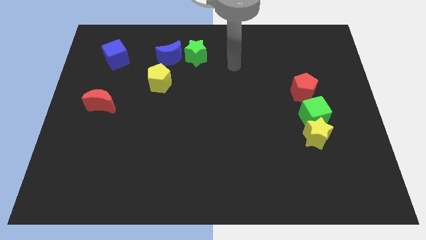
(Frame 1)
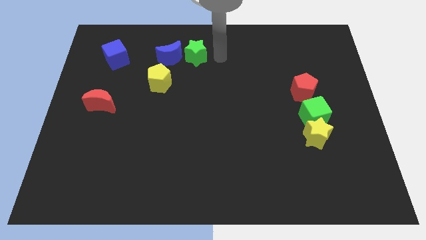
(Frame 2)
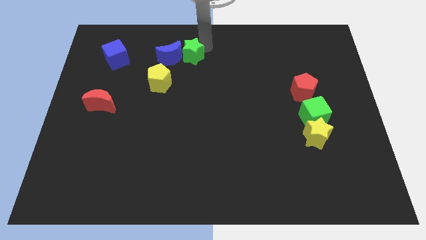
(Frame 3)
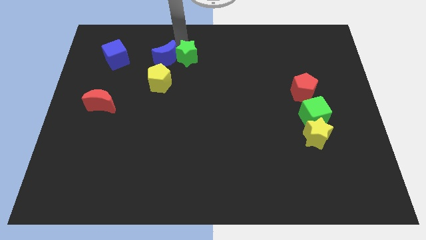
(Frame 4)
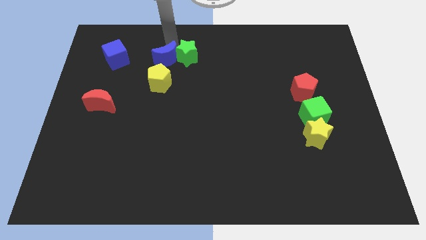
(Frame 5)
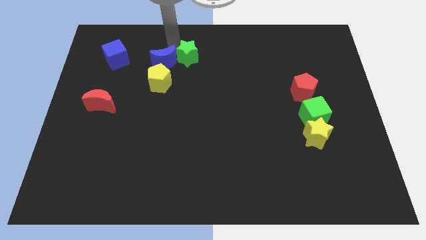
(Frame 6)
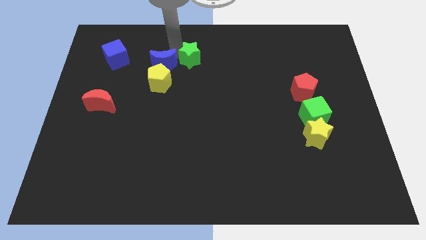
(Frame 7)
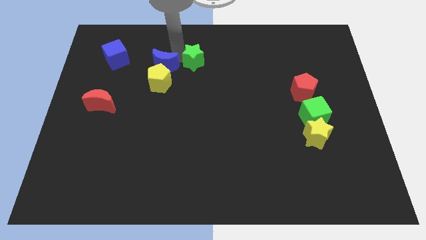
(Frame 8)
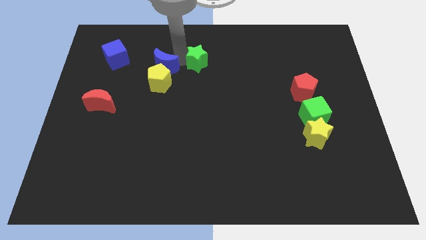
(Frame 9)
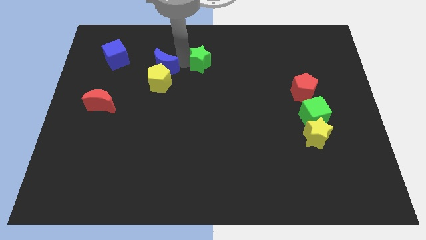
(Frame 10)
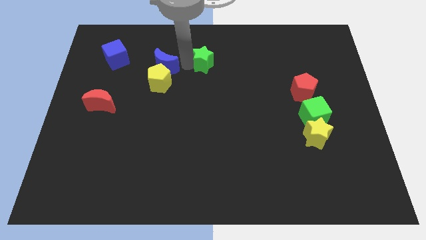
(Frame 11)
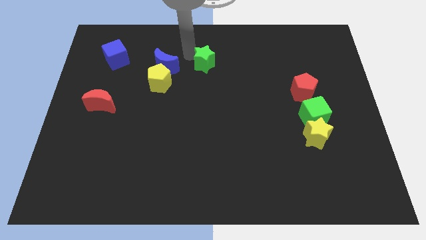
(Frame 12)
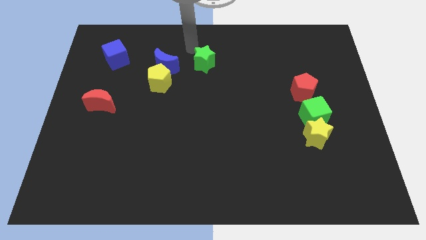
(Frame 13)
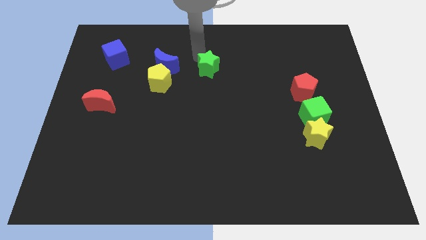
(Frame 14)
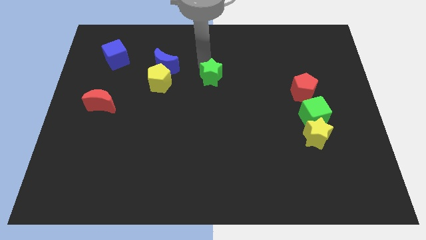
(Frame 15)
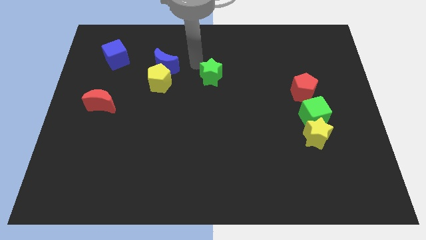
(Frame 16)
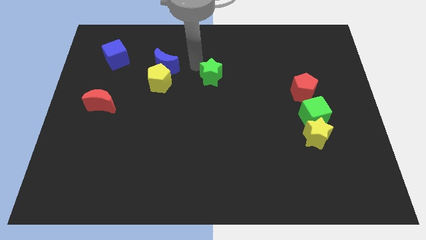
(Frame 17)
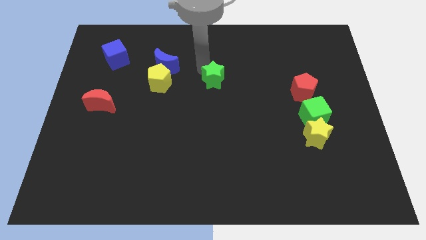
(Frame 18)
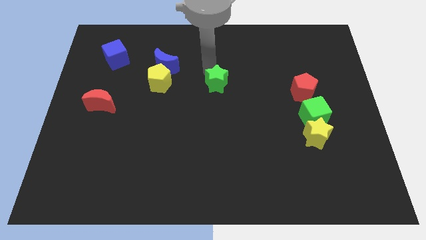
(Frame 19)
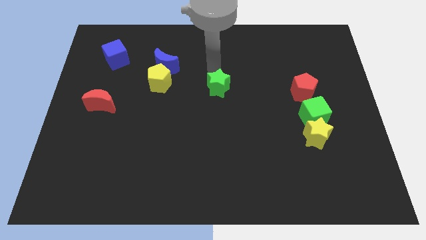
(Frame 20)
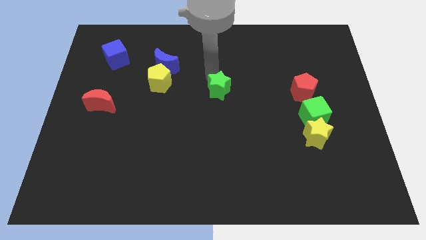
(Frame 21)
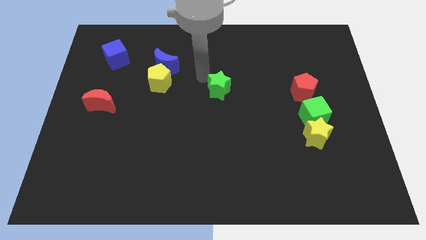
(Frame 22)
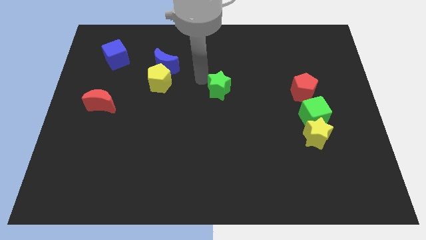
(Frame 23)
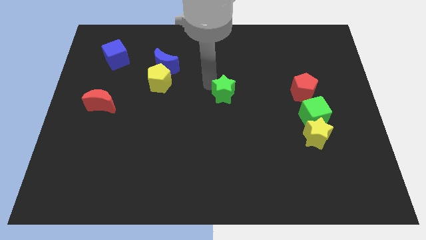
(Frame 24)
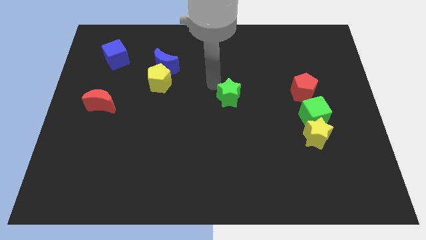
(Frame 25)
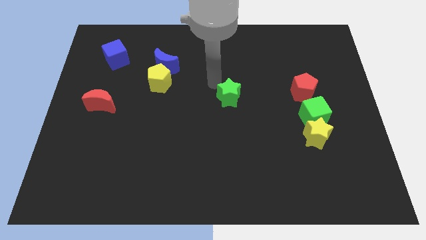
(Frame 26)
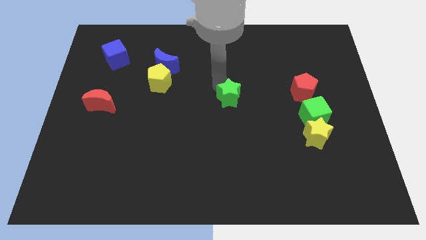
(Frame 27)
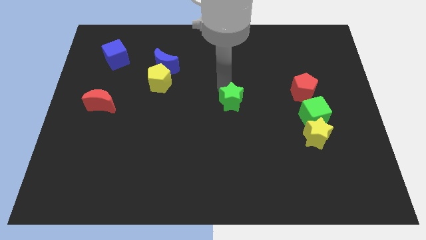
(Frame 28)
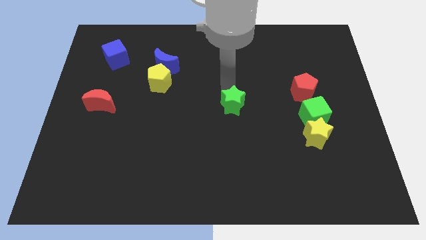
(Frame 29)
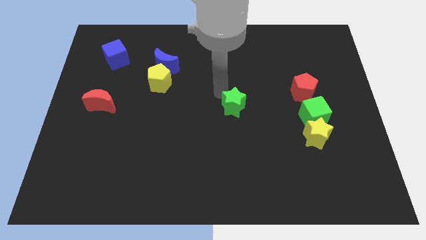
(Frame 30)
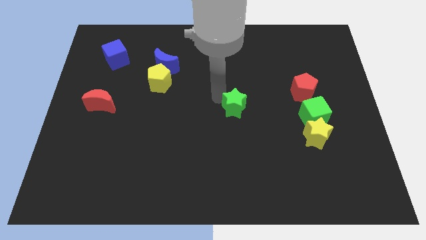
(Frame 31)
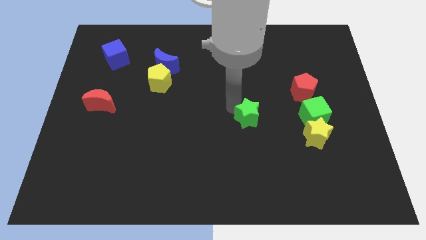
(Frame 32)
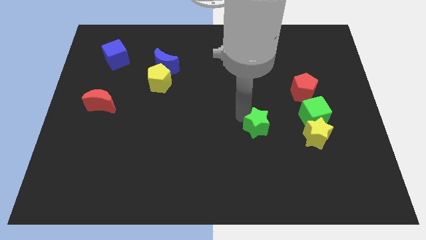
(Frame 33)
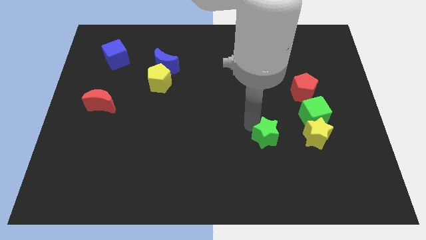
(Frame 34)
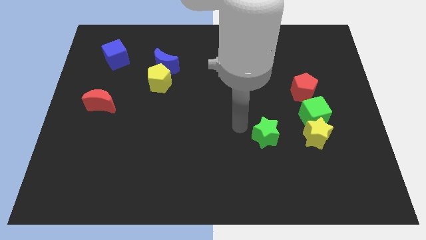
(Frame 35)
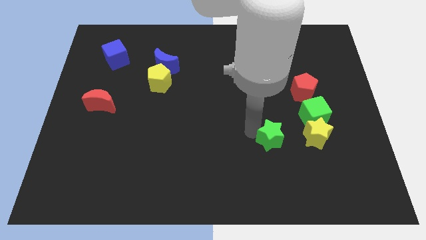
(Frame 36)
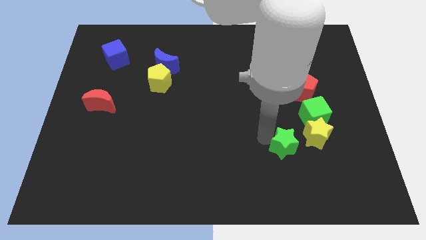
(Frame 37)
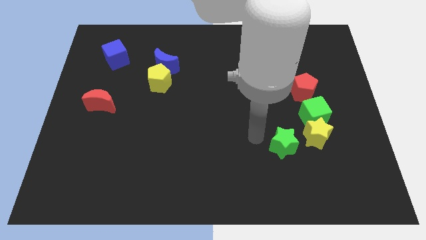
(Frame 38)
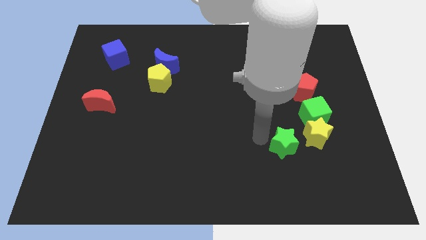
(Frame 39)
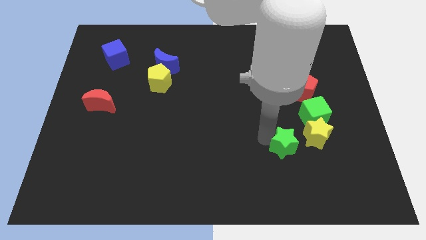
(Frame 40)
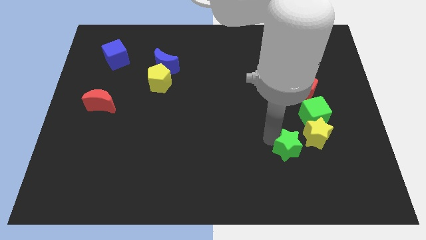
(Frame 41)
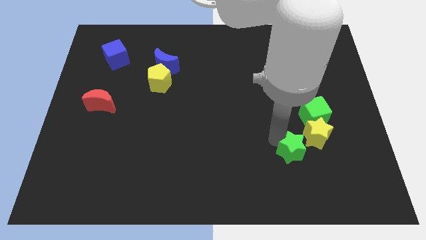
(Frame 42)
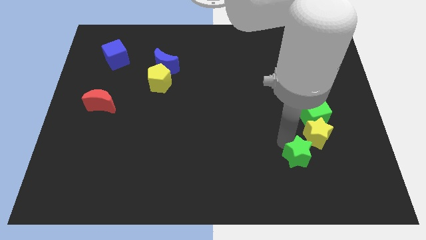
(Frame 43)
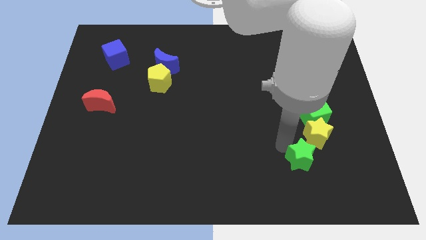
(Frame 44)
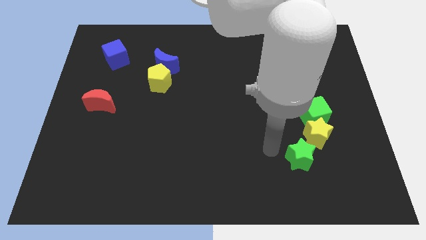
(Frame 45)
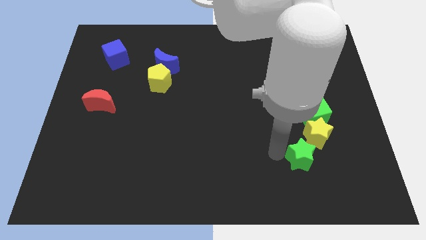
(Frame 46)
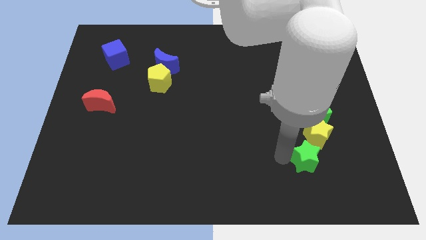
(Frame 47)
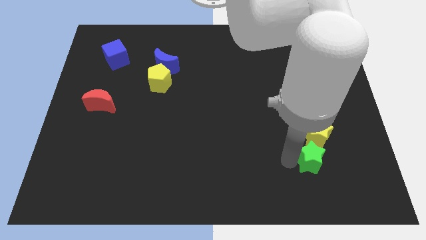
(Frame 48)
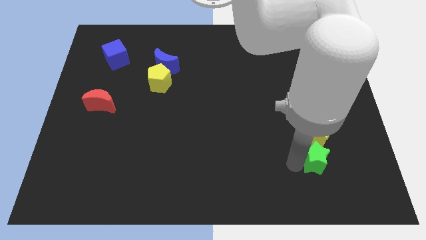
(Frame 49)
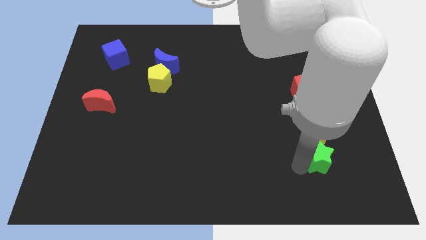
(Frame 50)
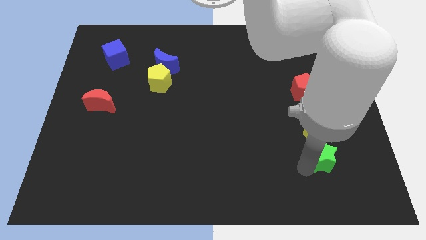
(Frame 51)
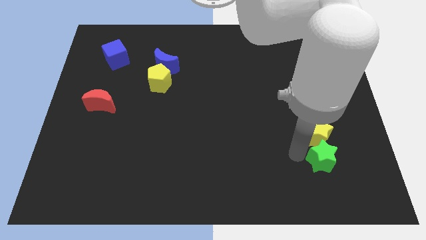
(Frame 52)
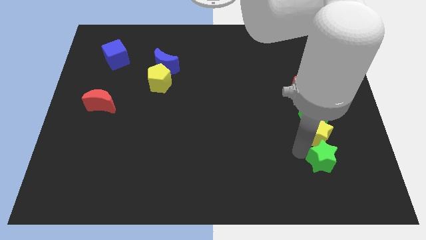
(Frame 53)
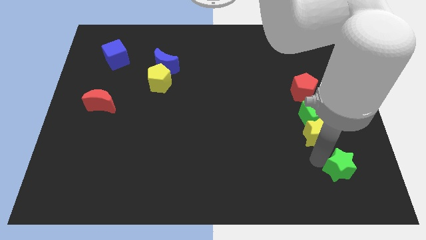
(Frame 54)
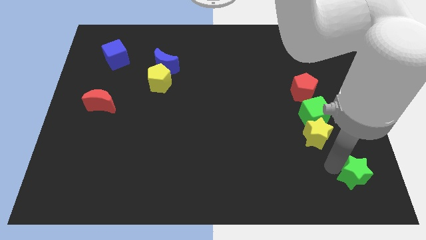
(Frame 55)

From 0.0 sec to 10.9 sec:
put the green star to the bottom right corner

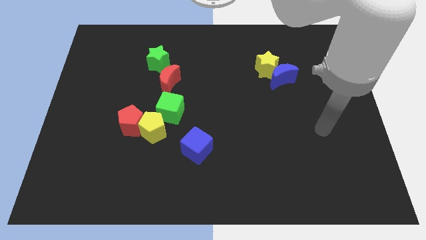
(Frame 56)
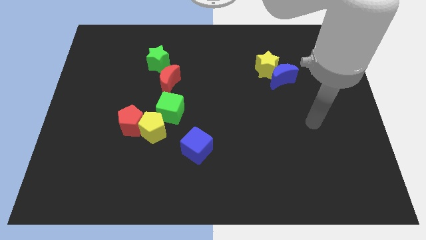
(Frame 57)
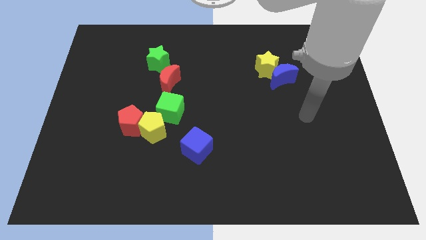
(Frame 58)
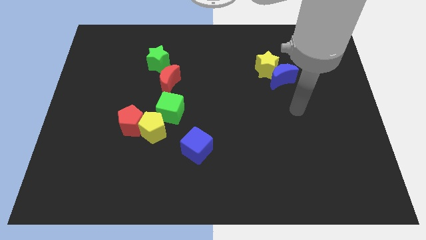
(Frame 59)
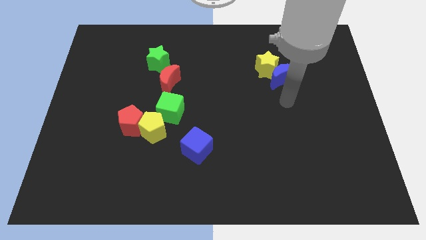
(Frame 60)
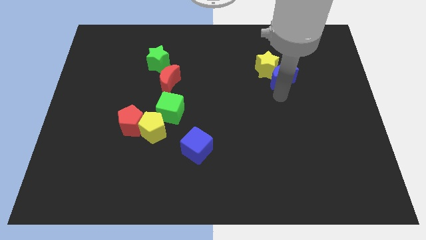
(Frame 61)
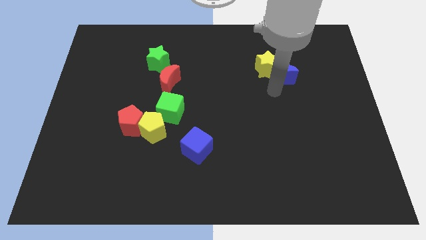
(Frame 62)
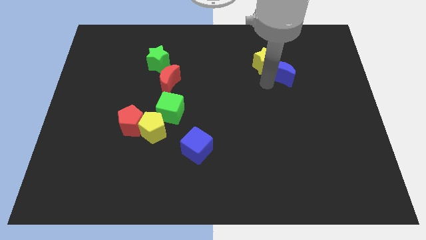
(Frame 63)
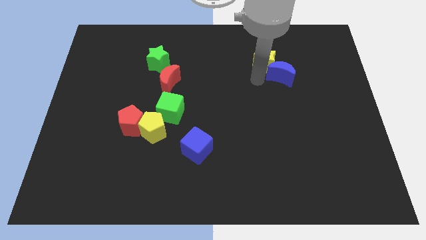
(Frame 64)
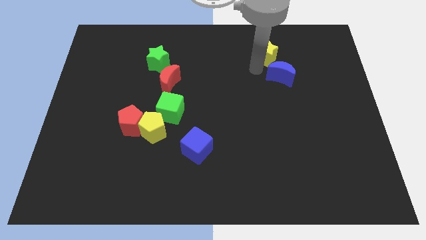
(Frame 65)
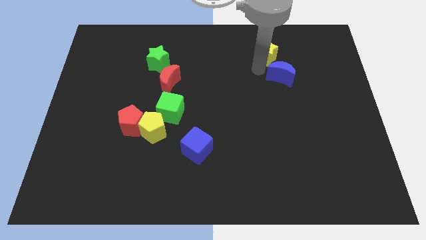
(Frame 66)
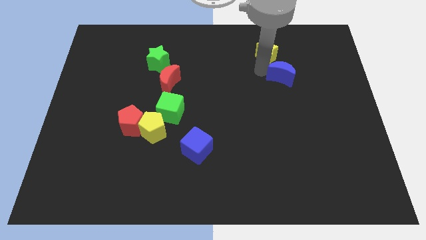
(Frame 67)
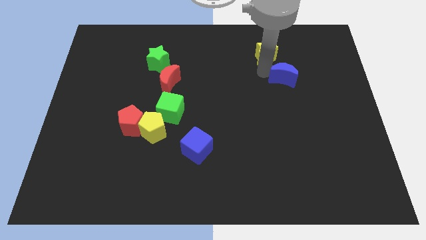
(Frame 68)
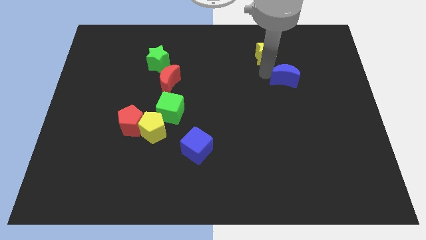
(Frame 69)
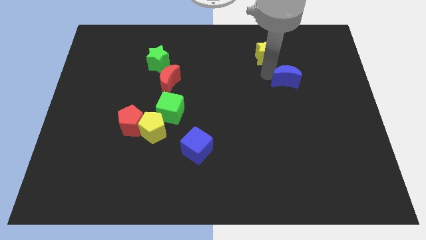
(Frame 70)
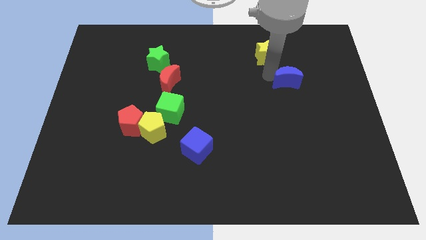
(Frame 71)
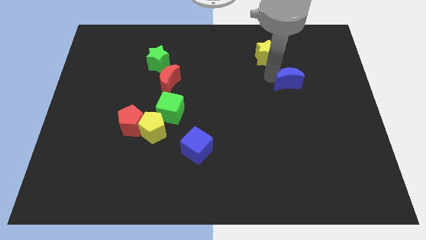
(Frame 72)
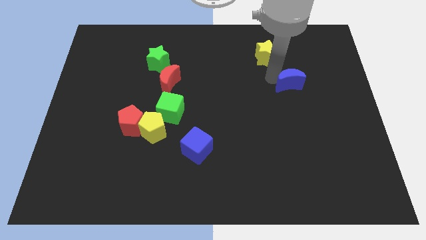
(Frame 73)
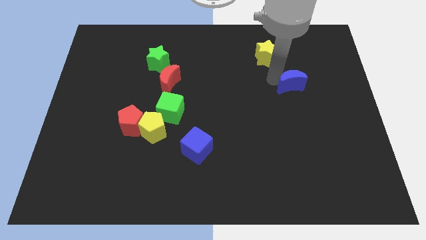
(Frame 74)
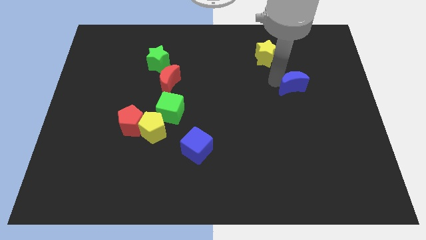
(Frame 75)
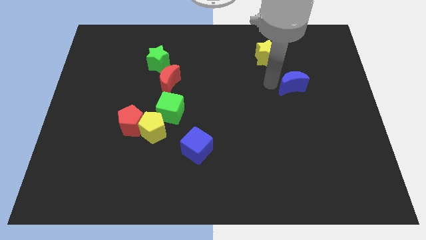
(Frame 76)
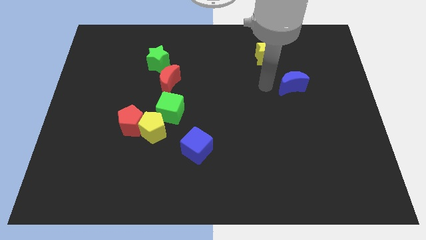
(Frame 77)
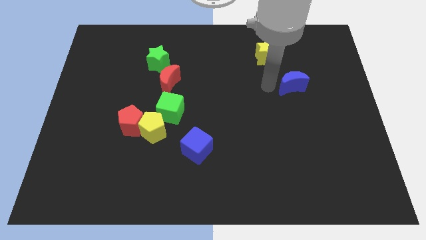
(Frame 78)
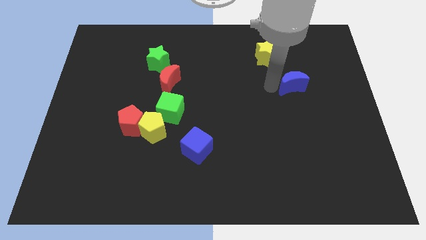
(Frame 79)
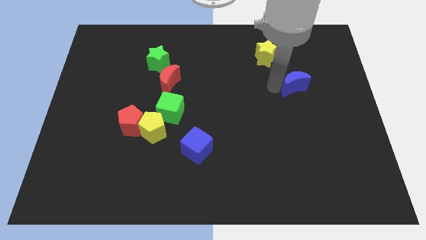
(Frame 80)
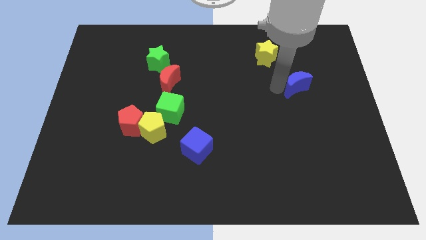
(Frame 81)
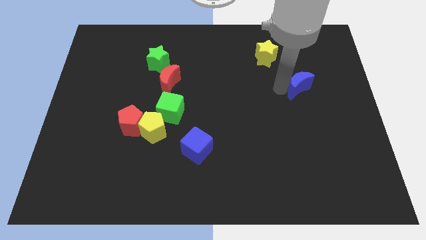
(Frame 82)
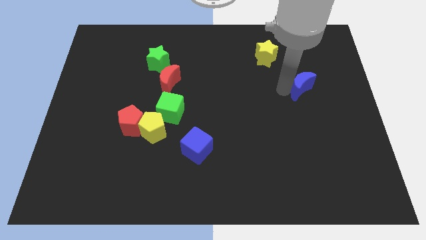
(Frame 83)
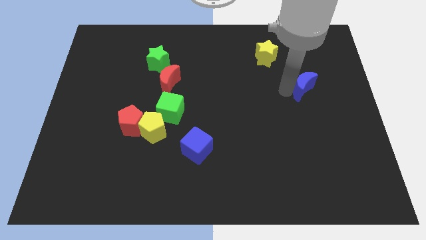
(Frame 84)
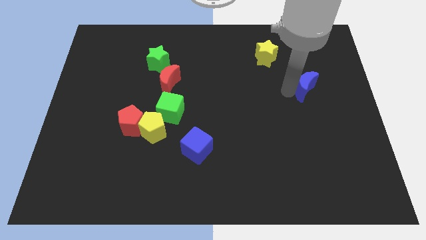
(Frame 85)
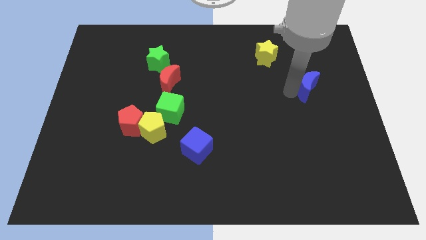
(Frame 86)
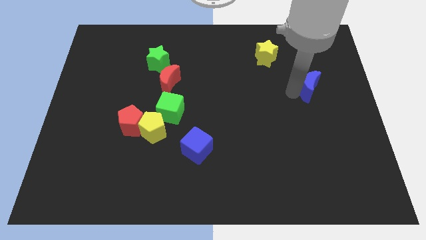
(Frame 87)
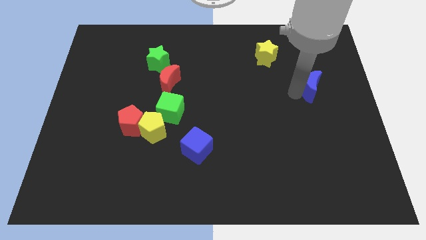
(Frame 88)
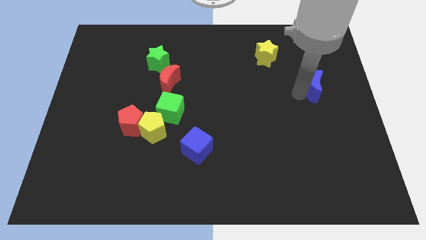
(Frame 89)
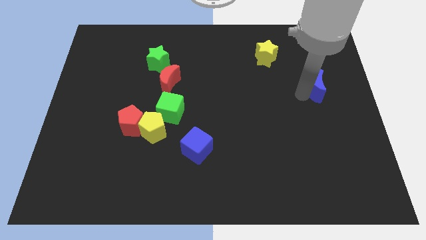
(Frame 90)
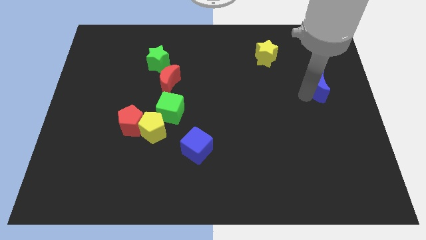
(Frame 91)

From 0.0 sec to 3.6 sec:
push the blue moon to the center right
